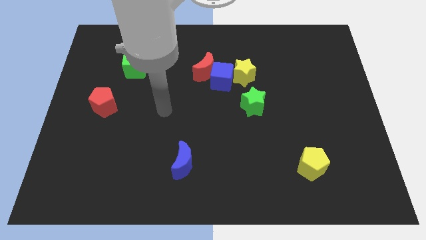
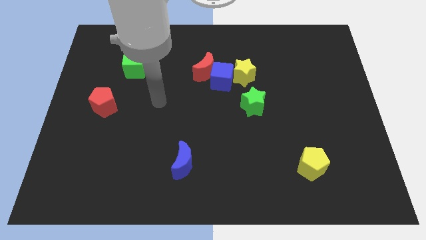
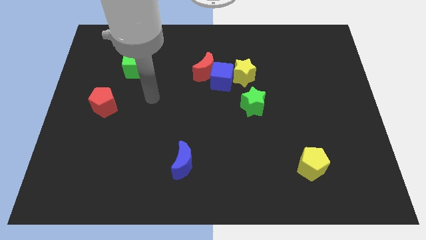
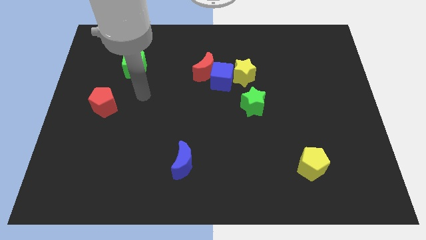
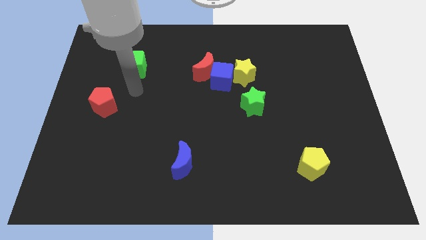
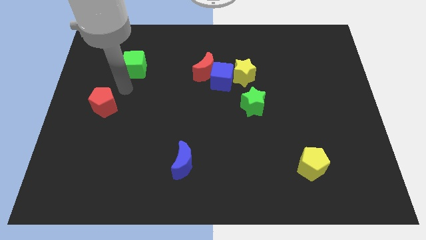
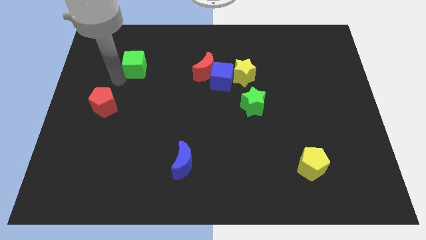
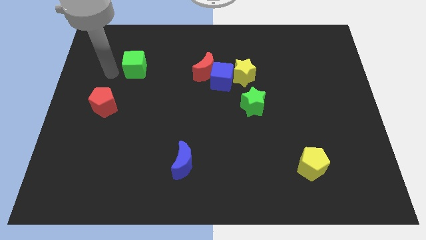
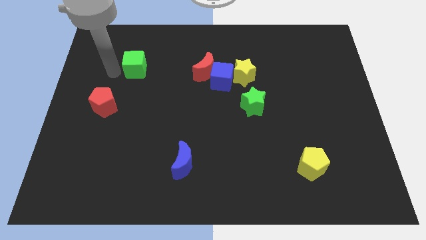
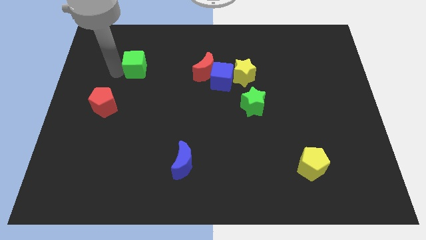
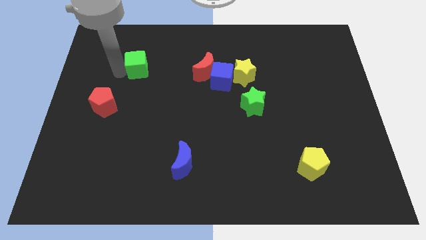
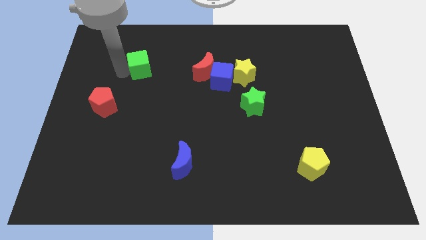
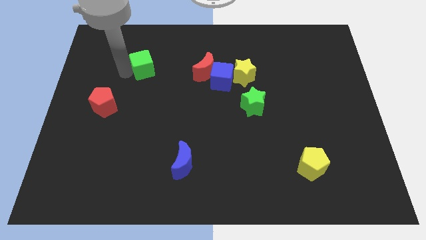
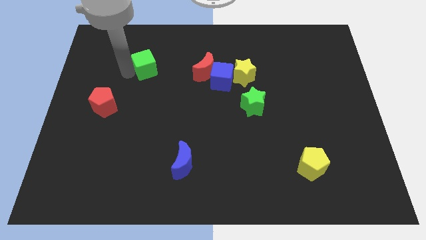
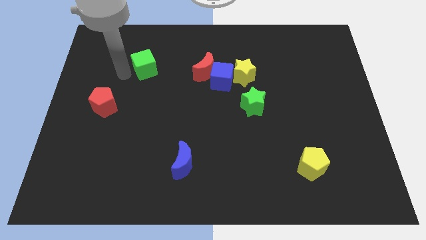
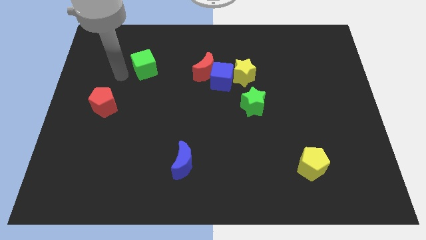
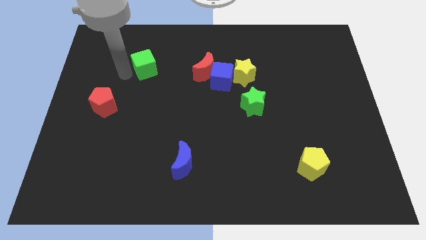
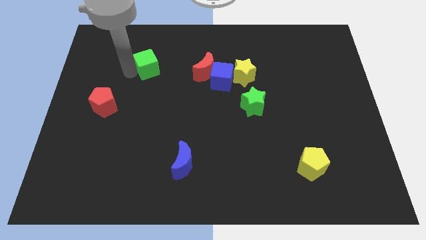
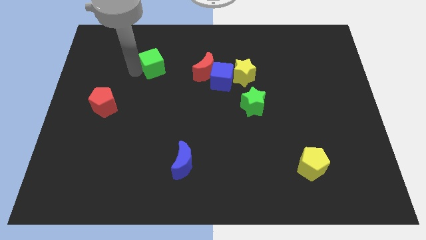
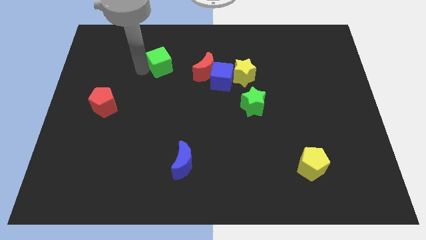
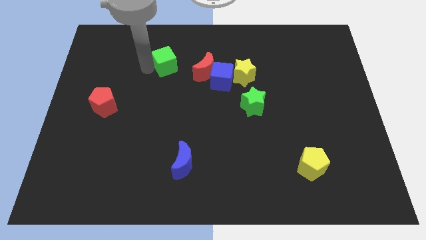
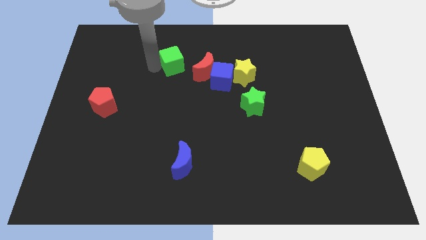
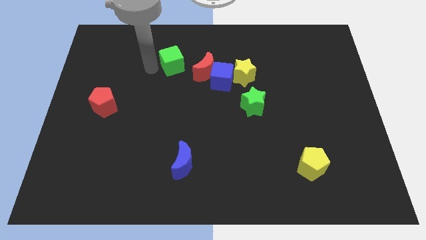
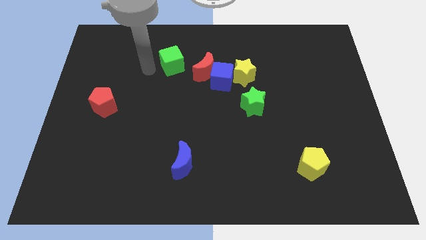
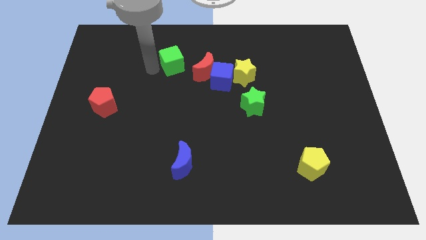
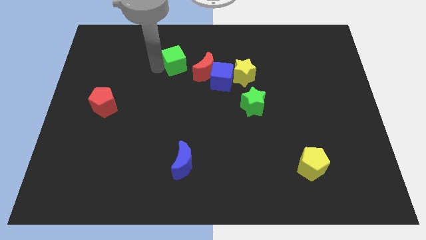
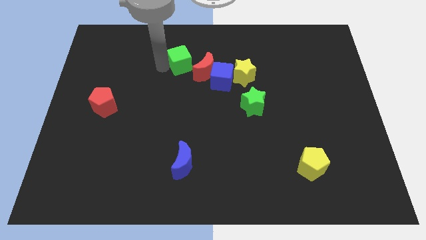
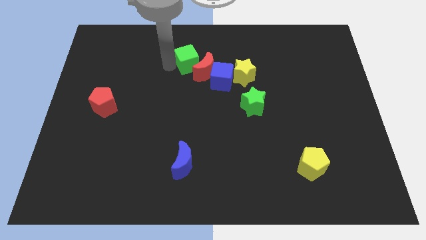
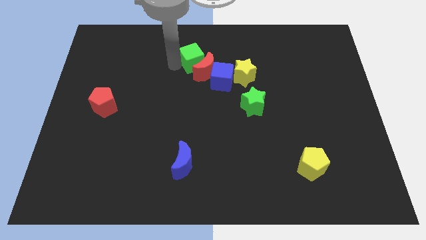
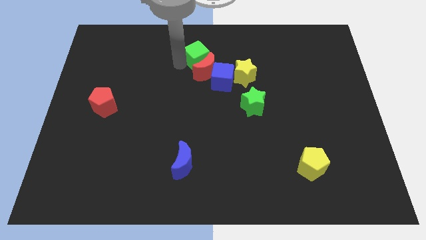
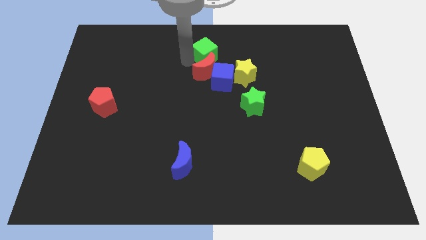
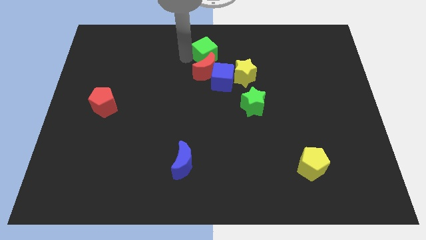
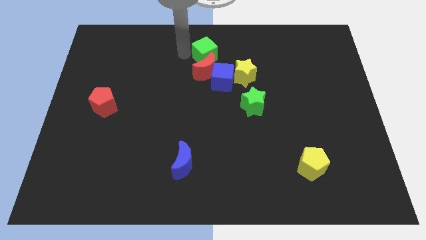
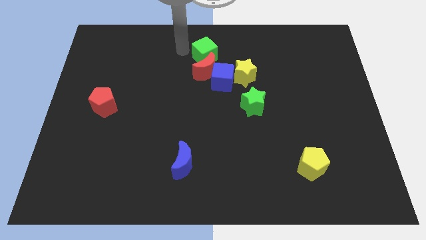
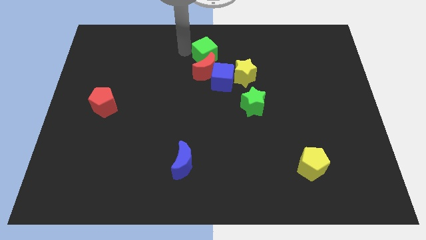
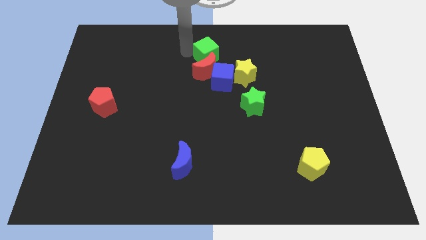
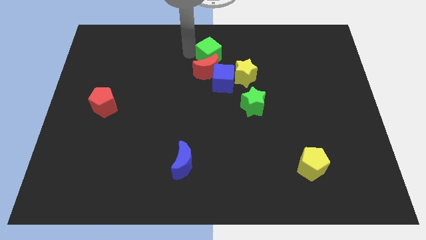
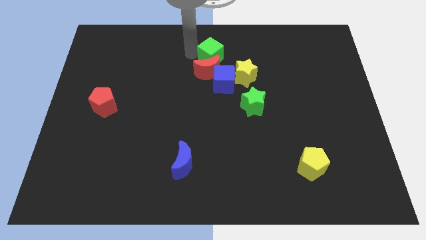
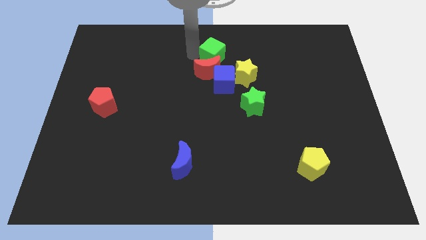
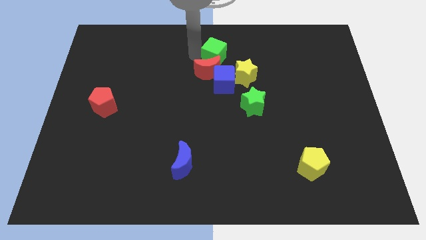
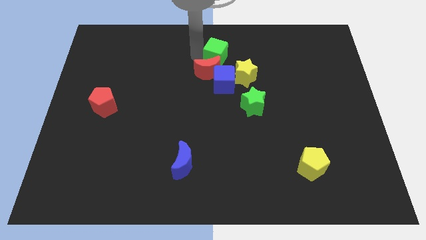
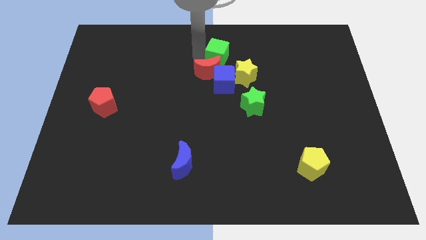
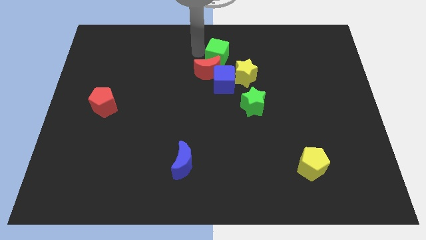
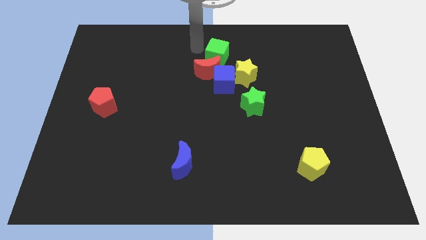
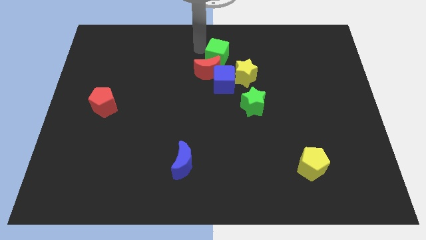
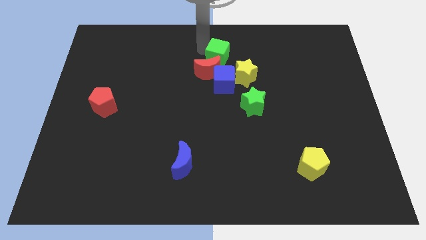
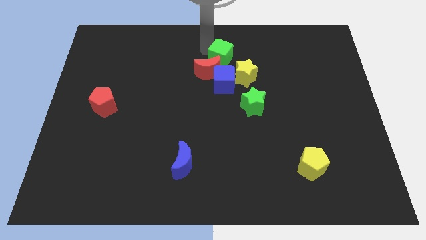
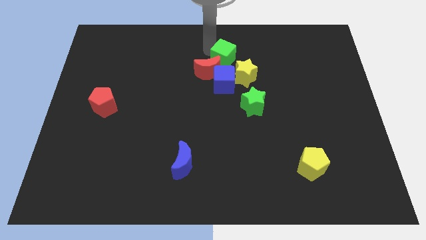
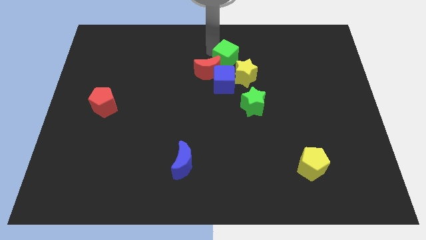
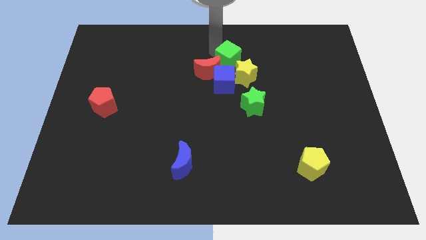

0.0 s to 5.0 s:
push the green cube to the top right side of the blue cube

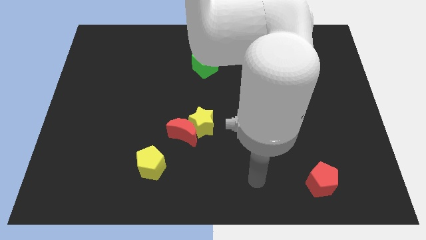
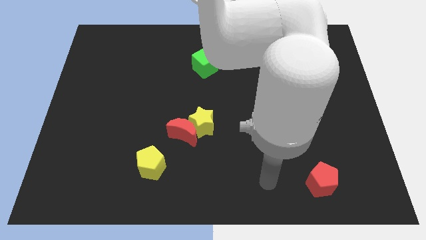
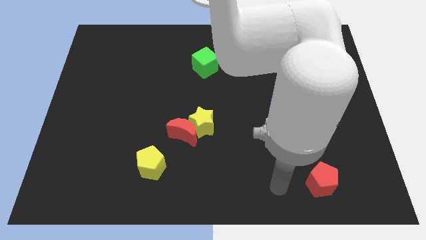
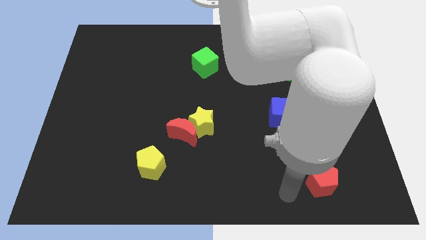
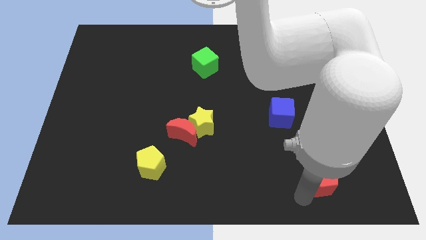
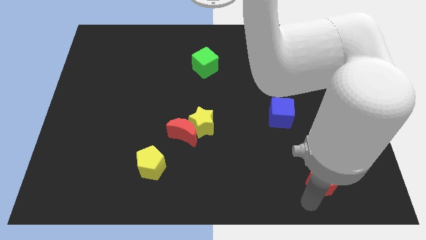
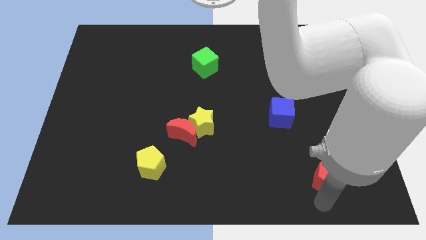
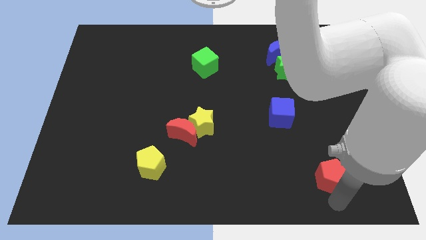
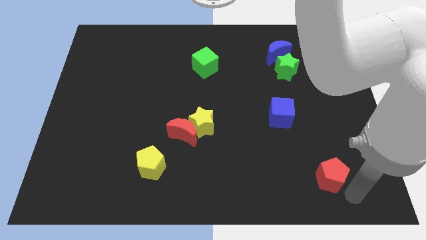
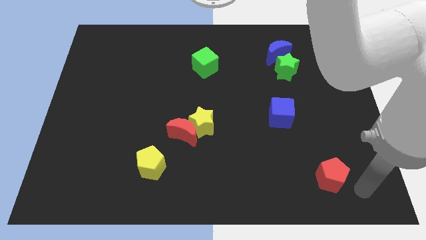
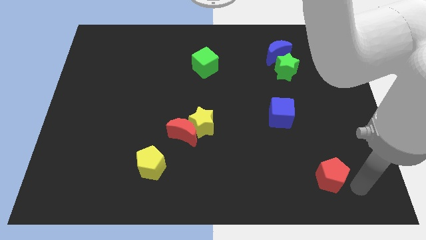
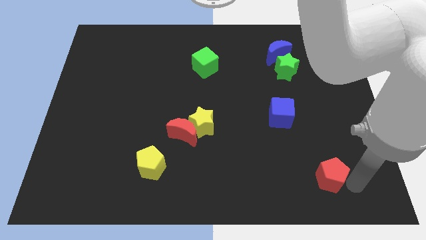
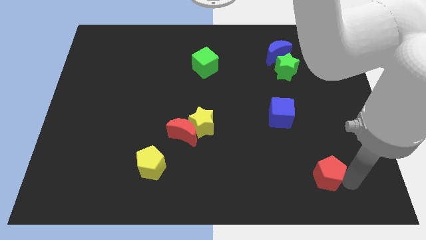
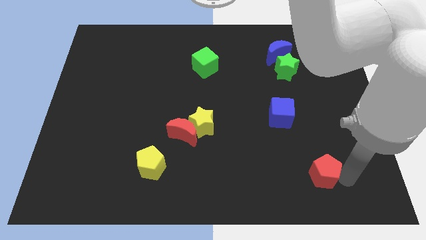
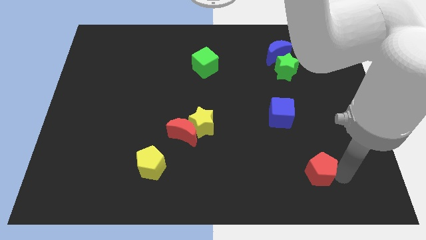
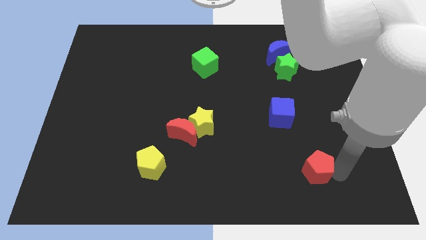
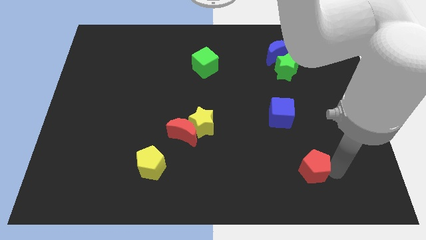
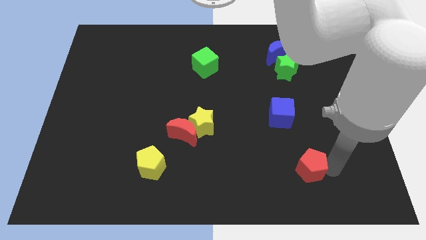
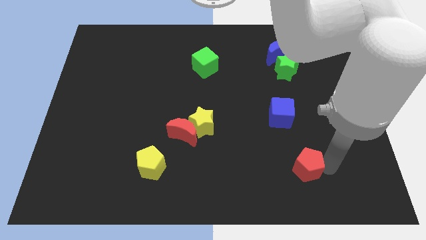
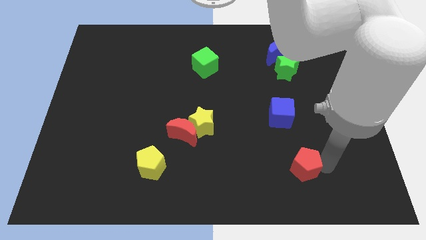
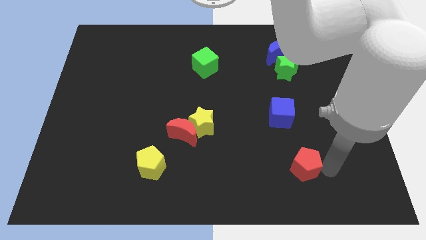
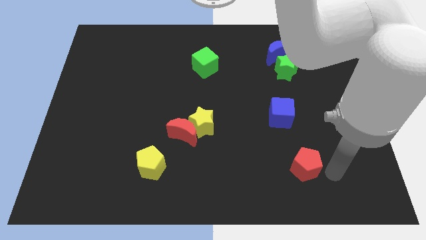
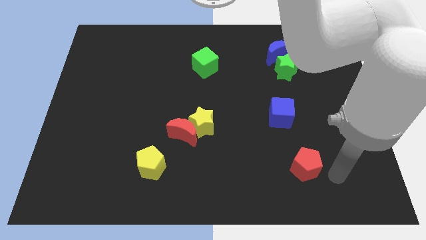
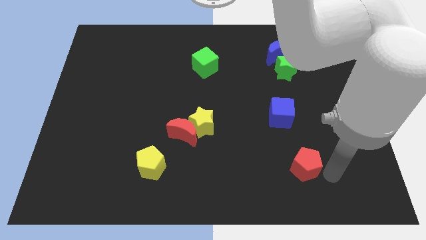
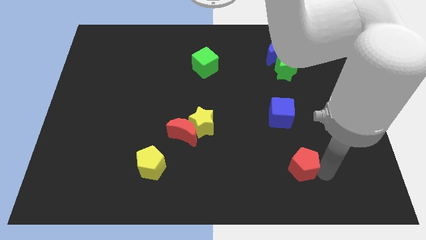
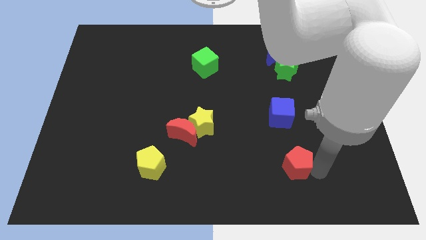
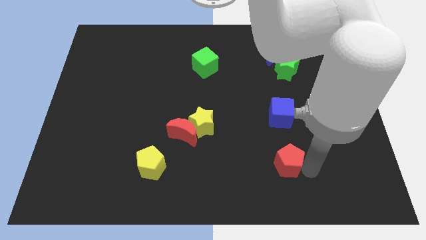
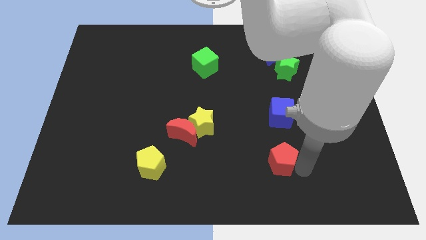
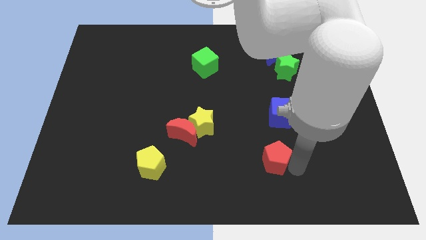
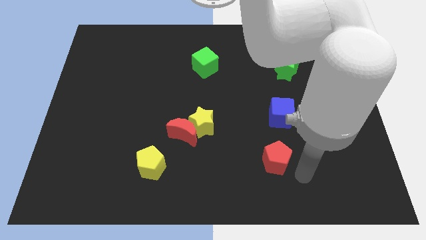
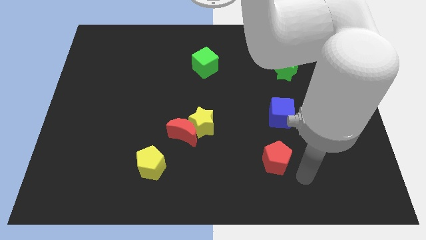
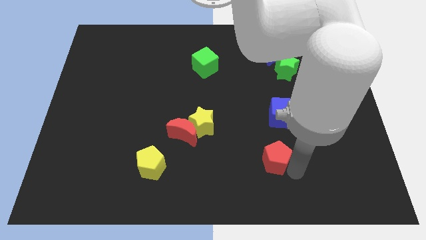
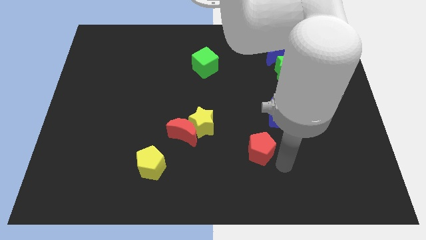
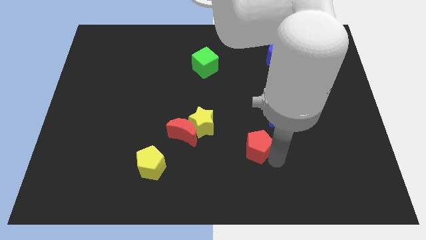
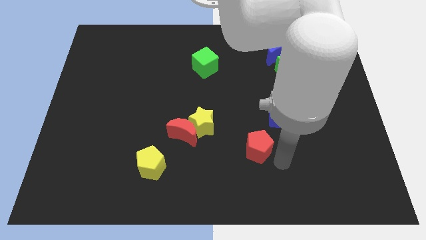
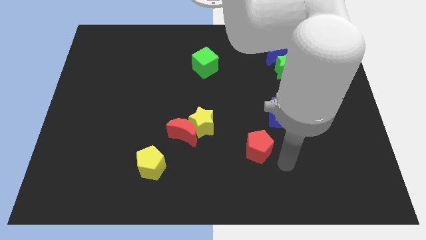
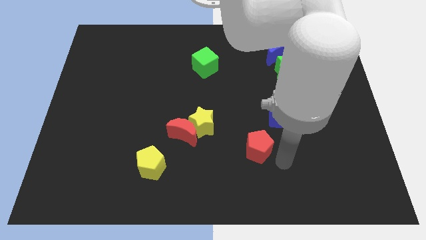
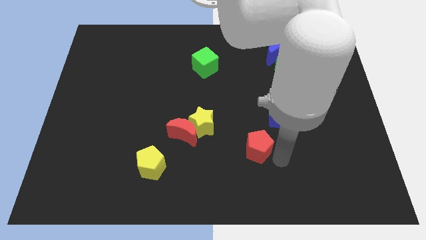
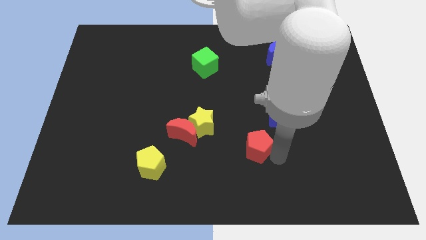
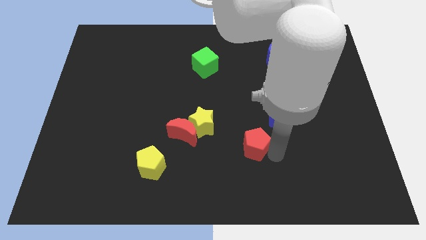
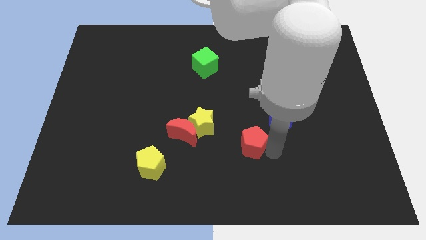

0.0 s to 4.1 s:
put the red pentagon right of the red moon
